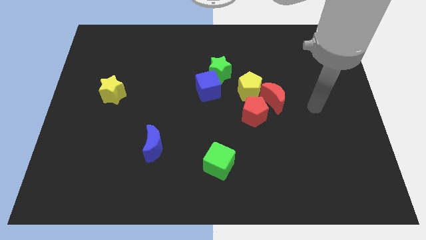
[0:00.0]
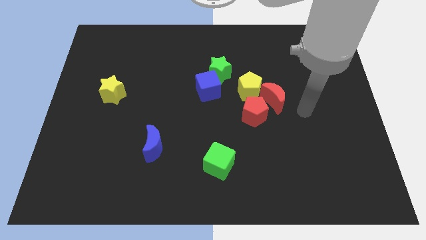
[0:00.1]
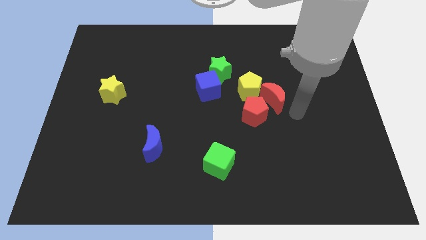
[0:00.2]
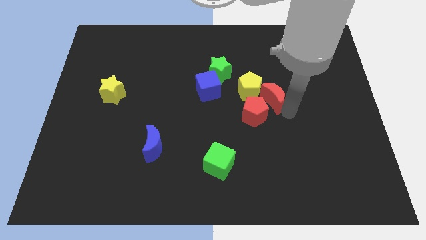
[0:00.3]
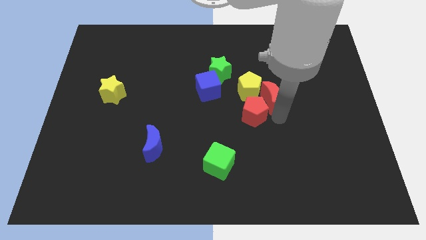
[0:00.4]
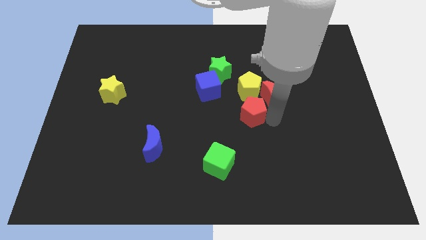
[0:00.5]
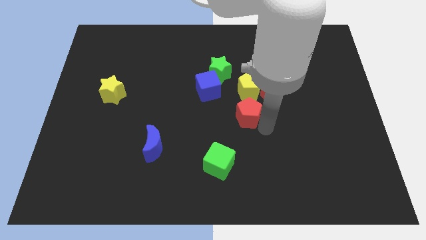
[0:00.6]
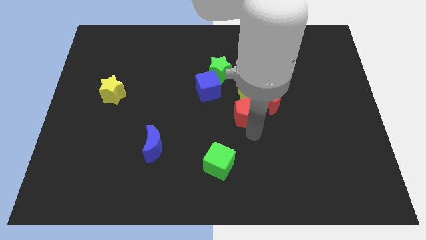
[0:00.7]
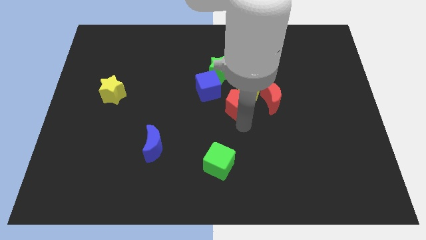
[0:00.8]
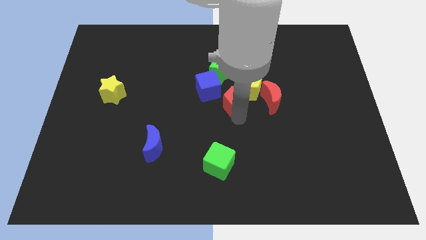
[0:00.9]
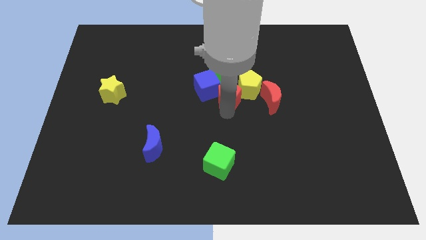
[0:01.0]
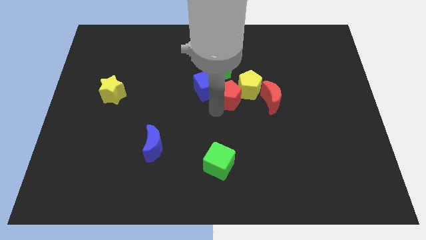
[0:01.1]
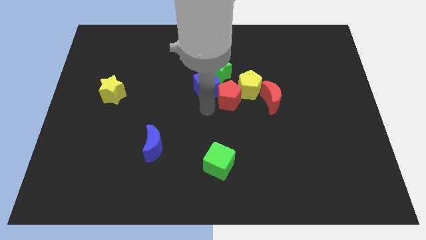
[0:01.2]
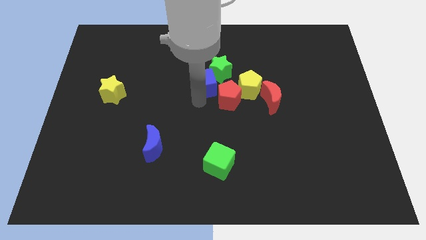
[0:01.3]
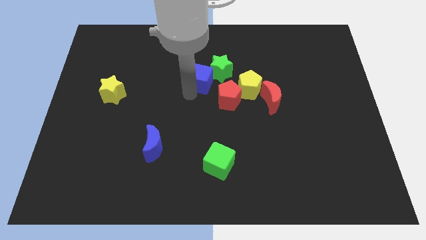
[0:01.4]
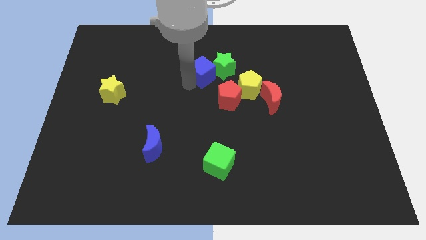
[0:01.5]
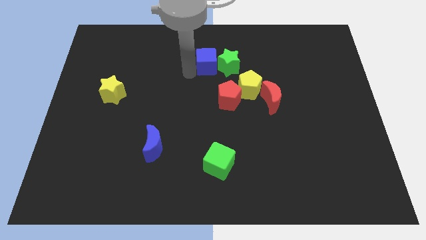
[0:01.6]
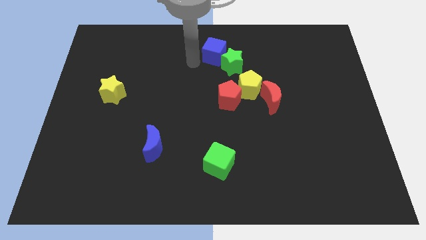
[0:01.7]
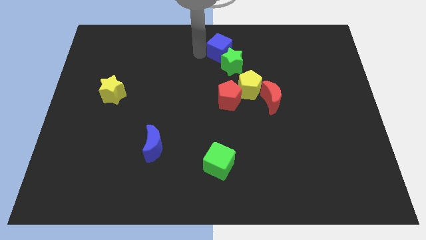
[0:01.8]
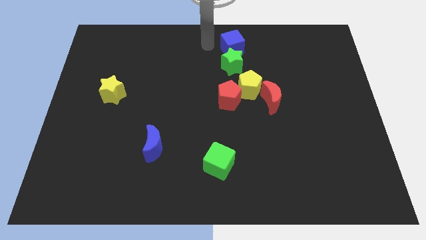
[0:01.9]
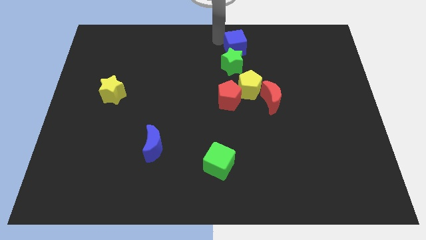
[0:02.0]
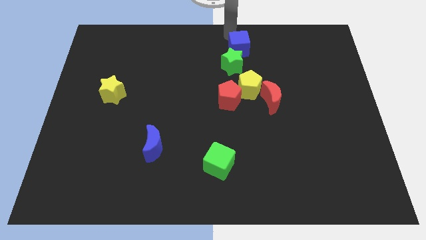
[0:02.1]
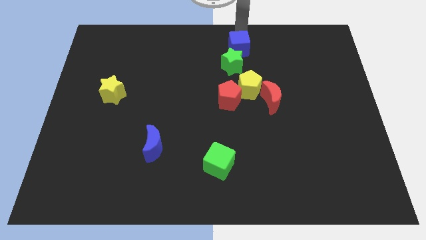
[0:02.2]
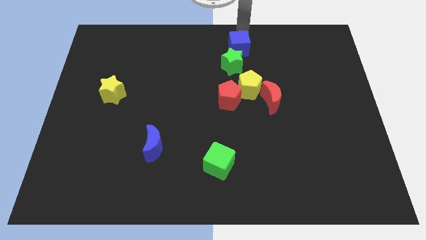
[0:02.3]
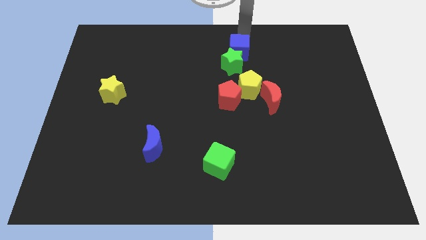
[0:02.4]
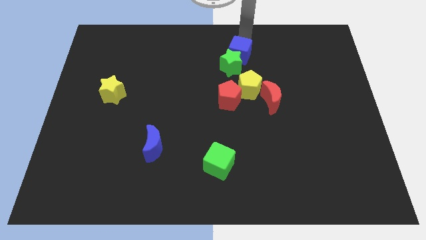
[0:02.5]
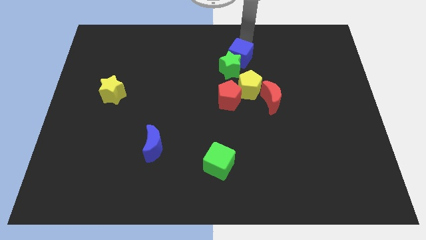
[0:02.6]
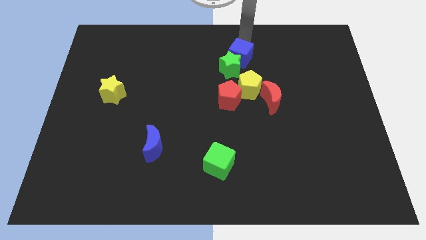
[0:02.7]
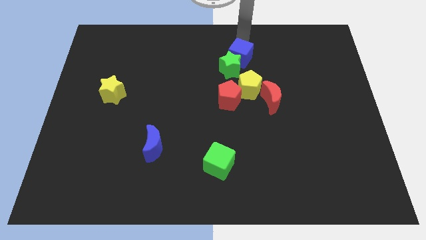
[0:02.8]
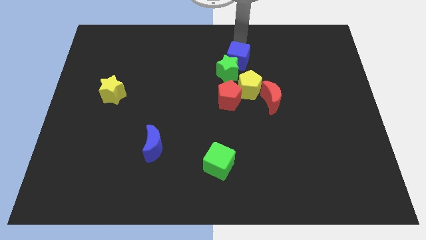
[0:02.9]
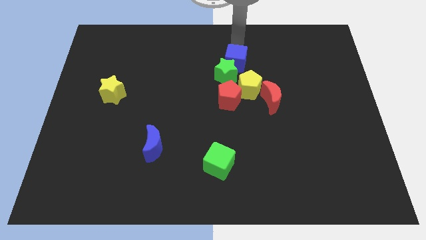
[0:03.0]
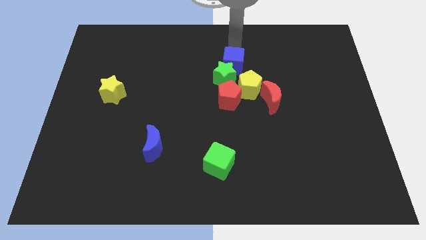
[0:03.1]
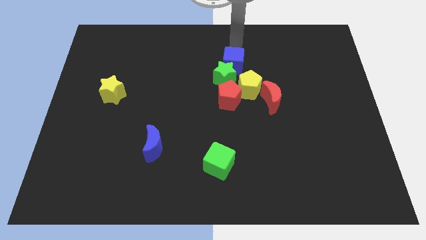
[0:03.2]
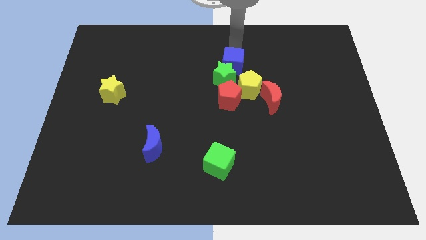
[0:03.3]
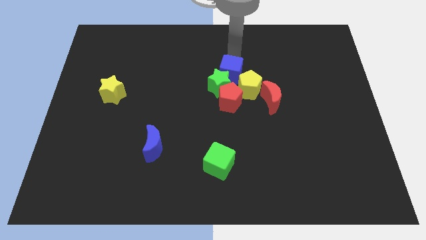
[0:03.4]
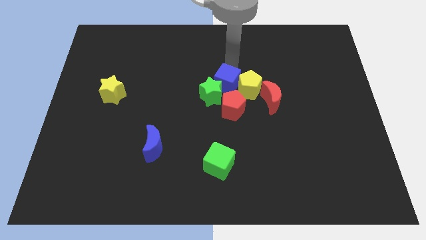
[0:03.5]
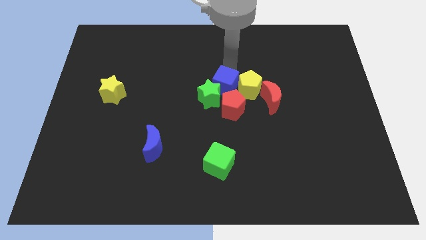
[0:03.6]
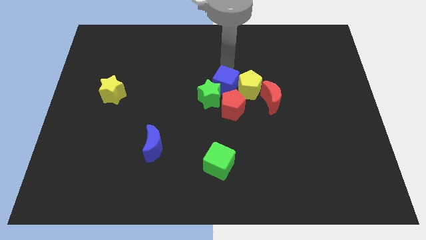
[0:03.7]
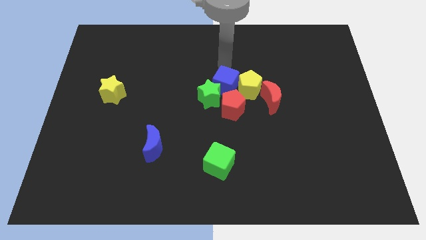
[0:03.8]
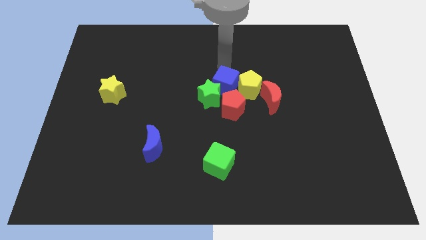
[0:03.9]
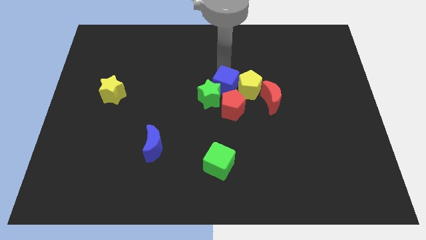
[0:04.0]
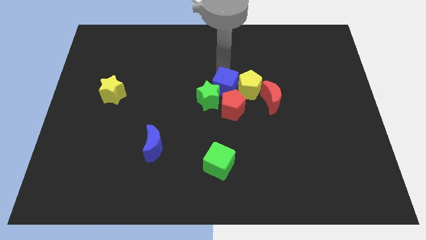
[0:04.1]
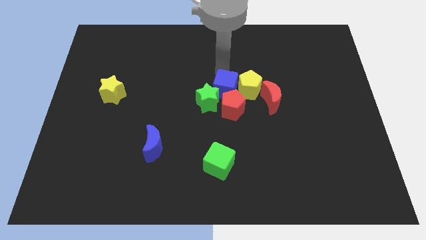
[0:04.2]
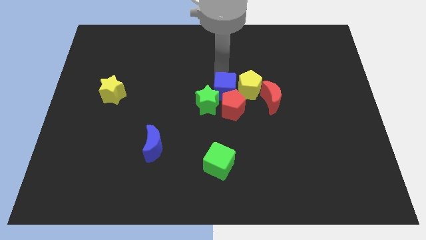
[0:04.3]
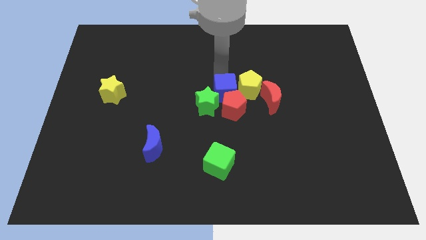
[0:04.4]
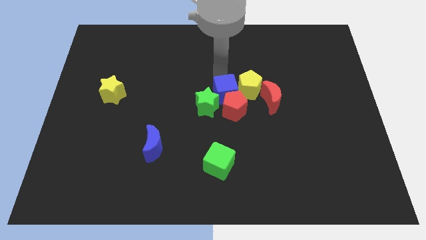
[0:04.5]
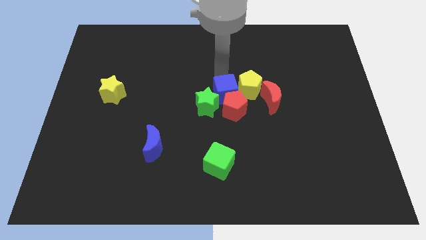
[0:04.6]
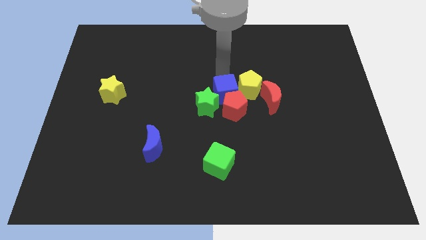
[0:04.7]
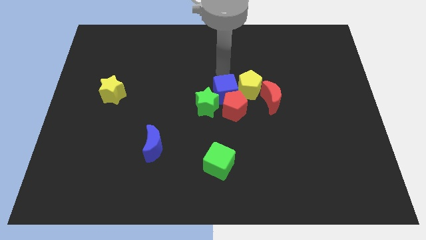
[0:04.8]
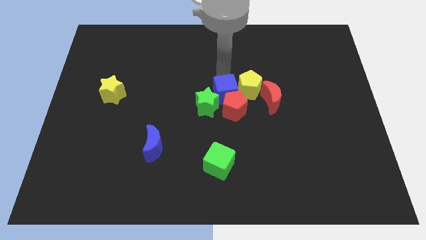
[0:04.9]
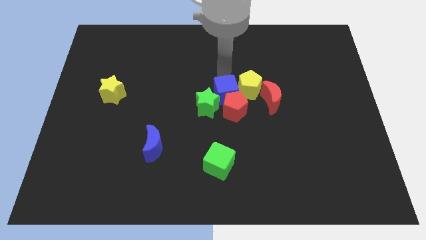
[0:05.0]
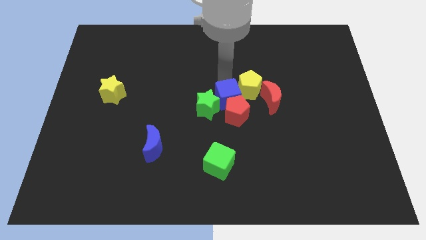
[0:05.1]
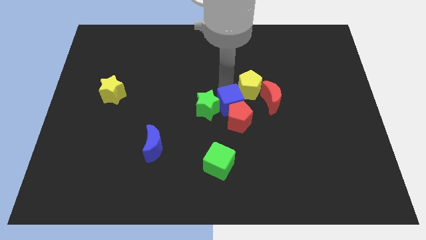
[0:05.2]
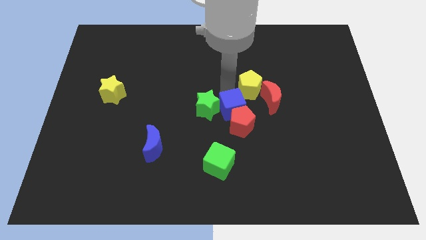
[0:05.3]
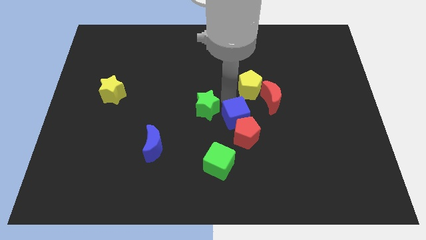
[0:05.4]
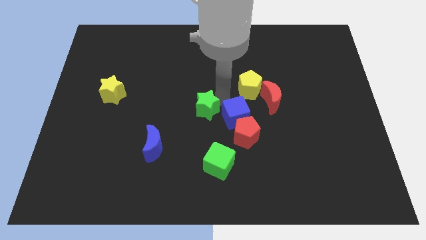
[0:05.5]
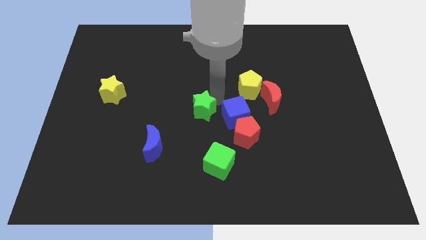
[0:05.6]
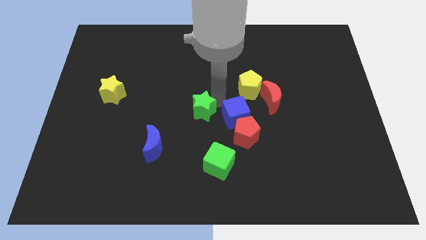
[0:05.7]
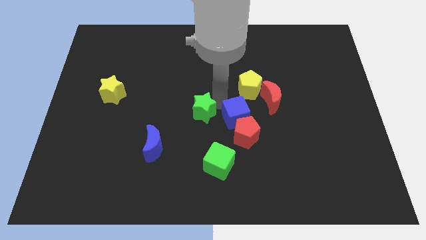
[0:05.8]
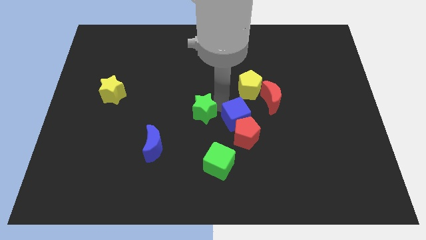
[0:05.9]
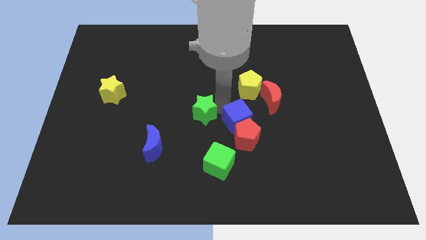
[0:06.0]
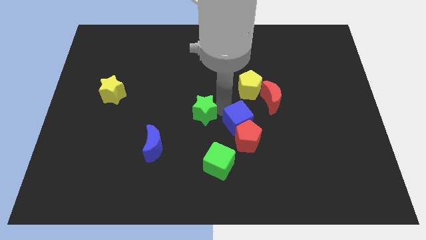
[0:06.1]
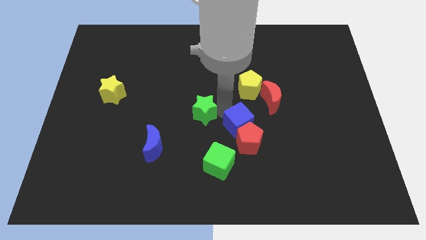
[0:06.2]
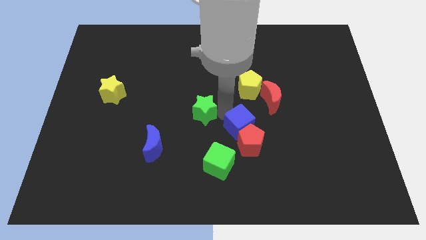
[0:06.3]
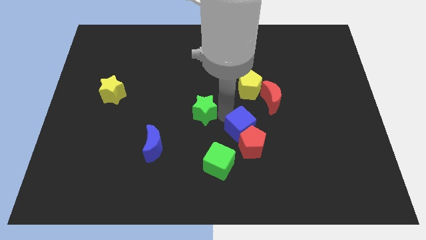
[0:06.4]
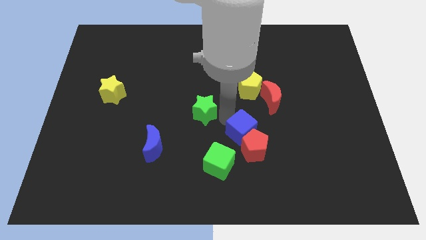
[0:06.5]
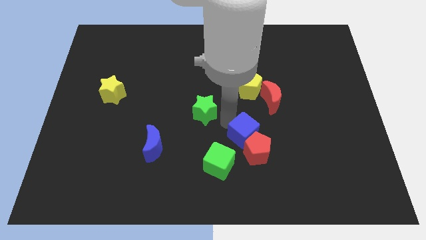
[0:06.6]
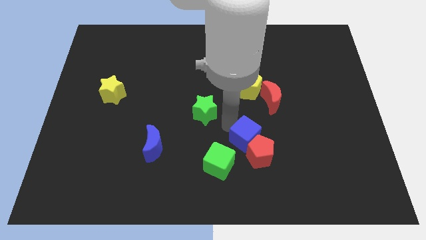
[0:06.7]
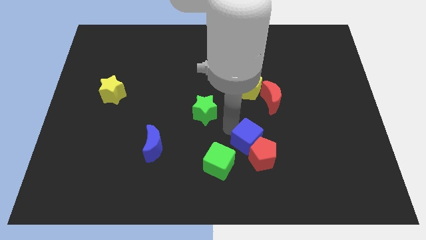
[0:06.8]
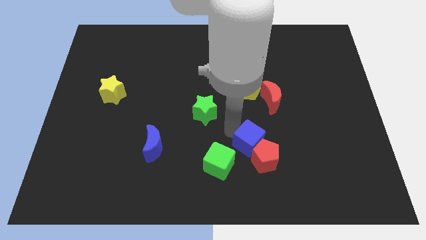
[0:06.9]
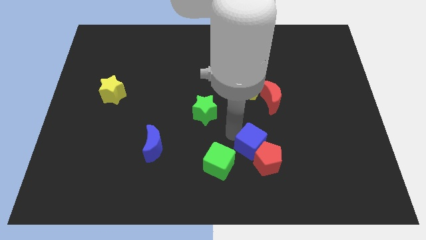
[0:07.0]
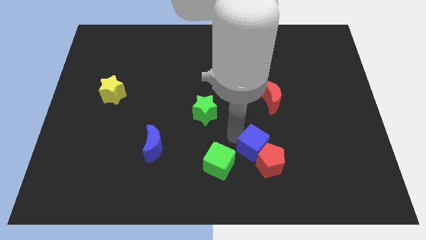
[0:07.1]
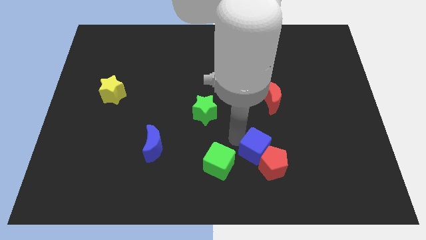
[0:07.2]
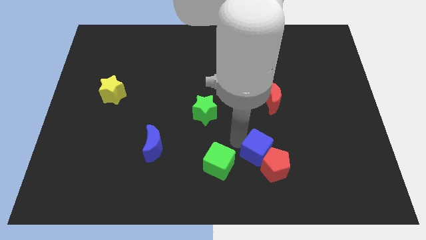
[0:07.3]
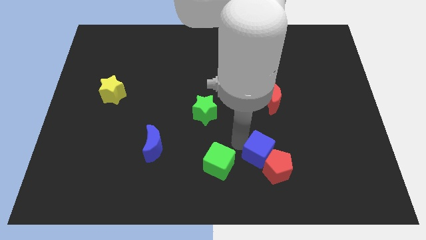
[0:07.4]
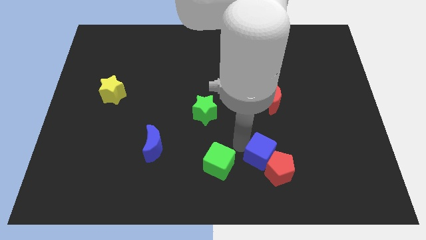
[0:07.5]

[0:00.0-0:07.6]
push the blue cube diagonally downwards and right

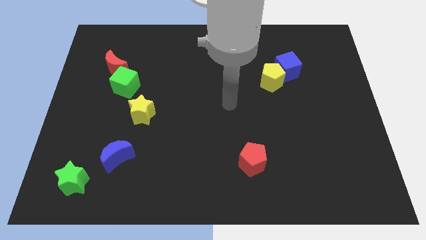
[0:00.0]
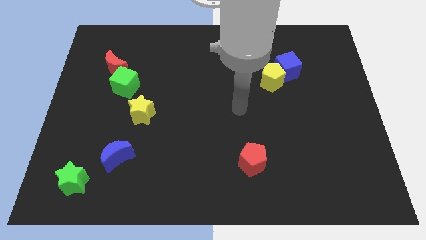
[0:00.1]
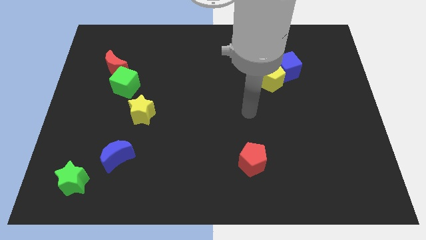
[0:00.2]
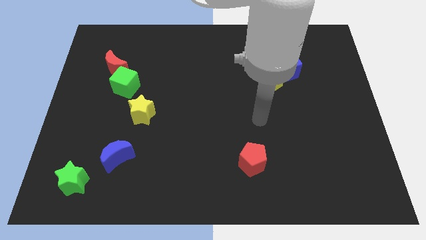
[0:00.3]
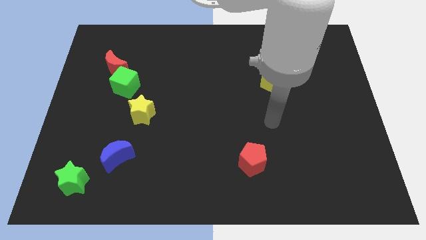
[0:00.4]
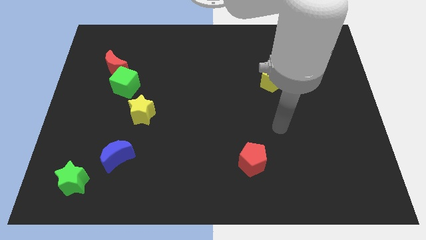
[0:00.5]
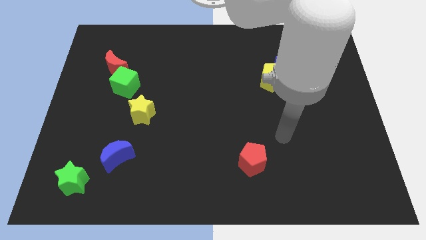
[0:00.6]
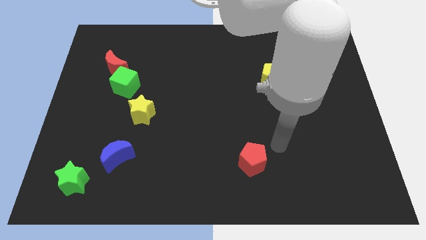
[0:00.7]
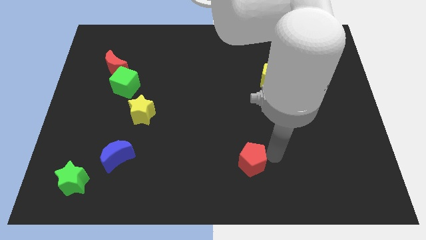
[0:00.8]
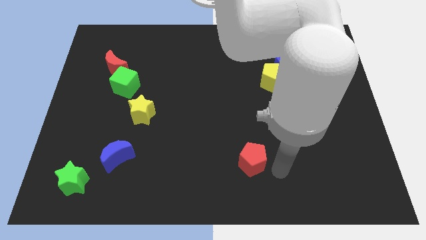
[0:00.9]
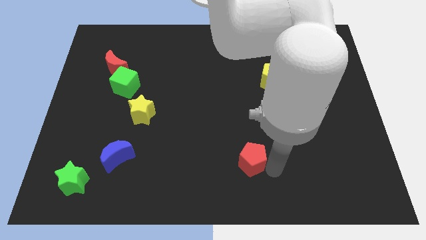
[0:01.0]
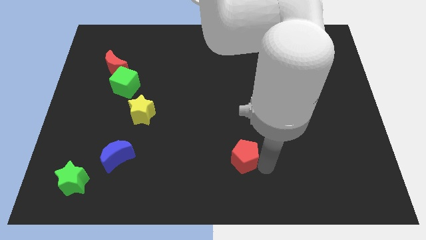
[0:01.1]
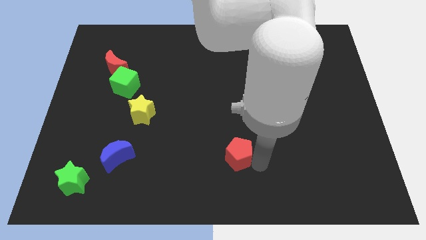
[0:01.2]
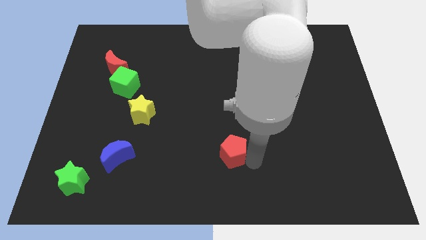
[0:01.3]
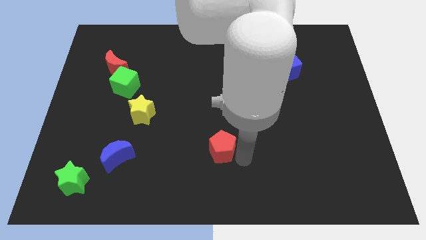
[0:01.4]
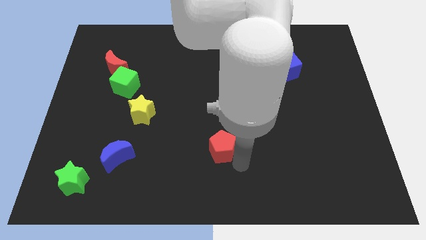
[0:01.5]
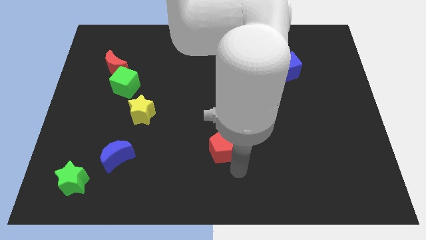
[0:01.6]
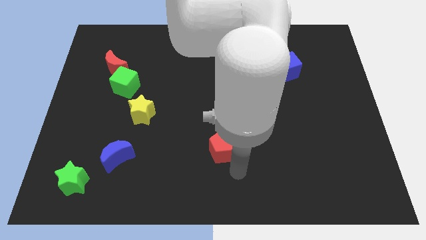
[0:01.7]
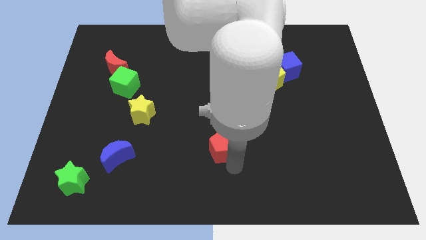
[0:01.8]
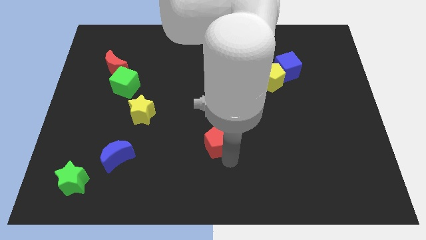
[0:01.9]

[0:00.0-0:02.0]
move the red pentagon upwards and to the left a little bit
